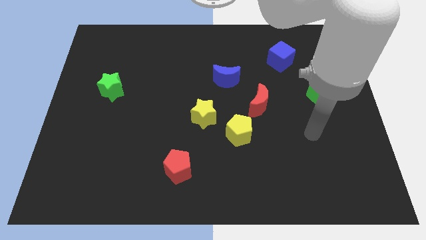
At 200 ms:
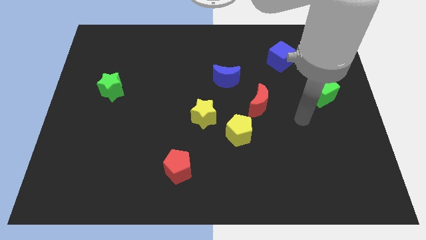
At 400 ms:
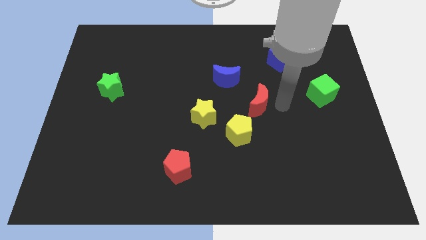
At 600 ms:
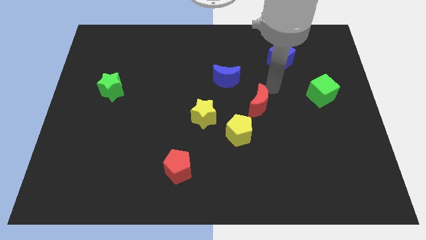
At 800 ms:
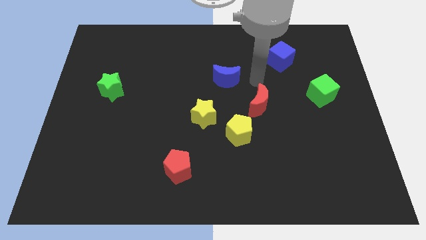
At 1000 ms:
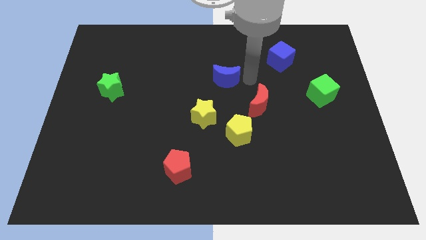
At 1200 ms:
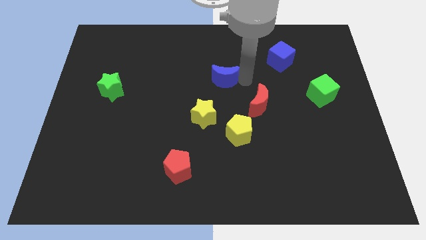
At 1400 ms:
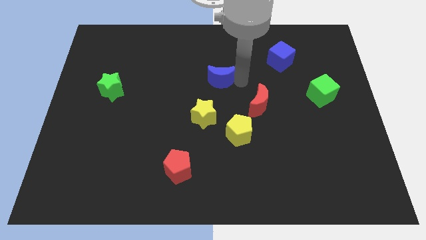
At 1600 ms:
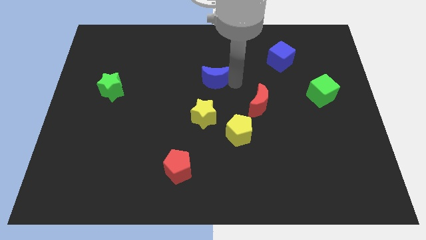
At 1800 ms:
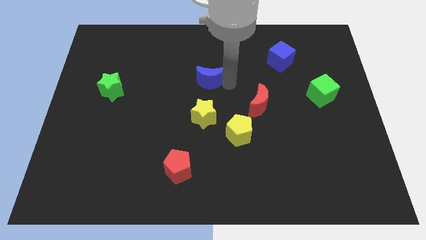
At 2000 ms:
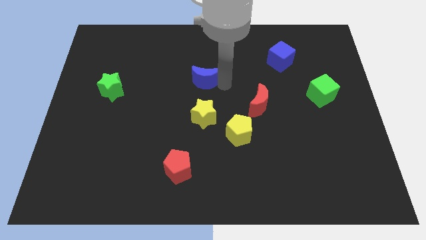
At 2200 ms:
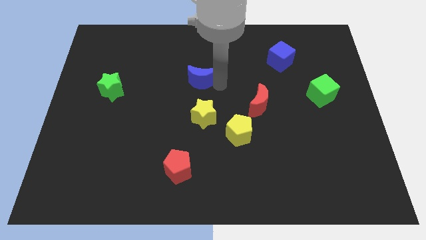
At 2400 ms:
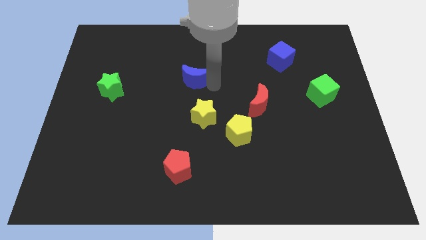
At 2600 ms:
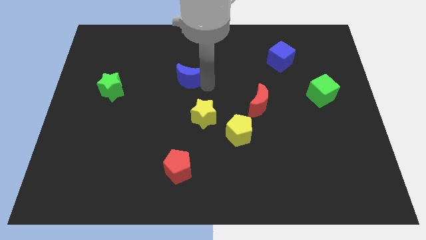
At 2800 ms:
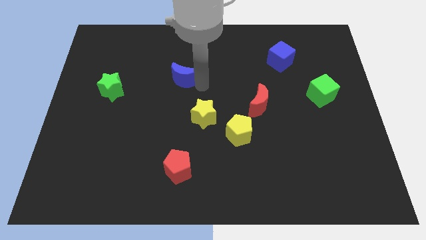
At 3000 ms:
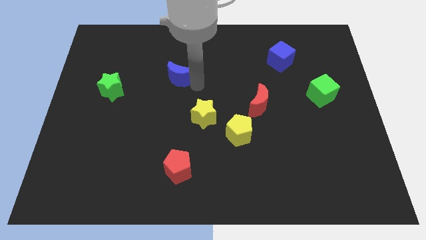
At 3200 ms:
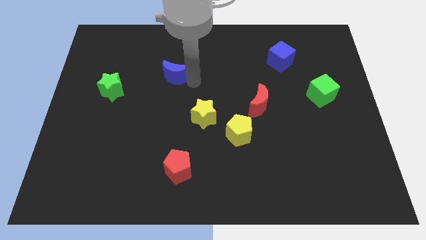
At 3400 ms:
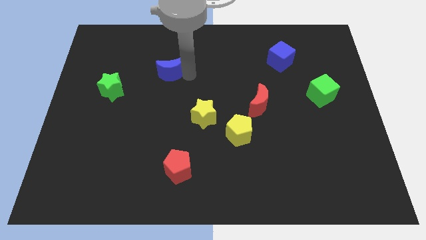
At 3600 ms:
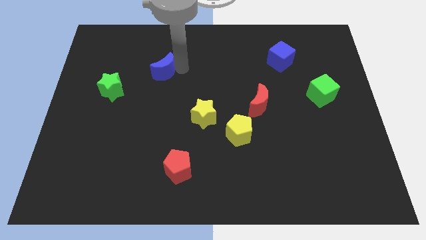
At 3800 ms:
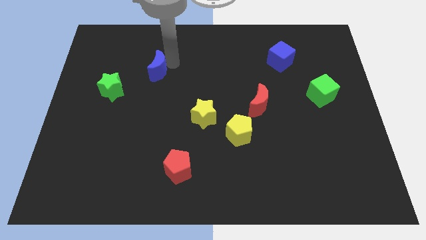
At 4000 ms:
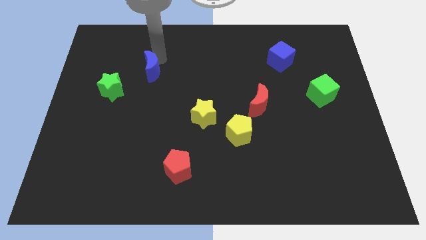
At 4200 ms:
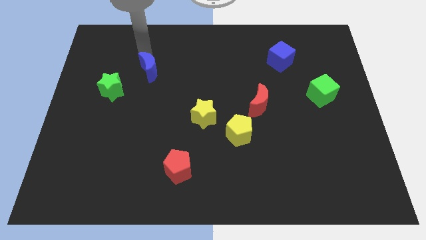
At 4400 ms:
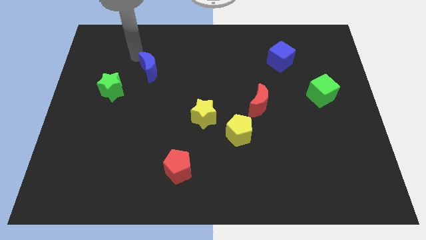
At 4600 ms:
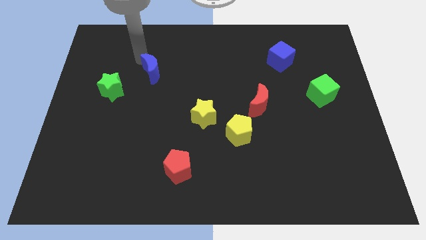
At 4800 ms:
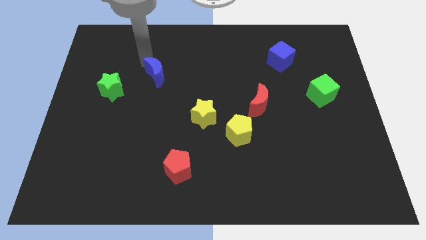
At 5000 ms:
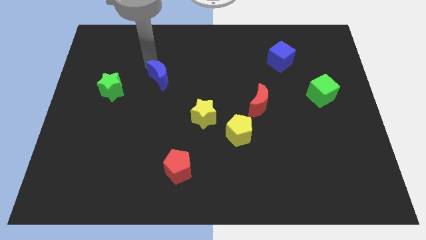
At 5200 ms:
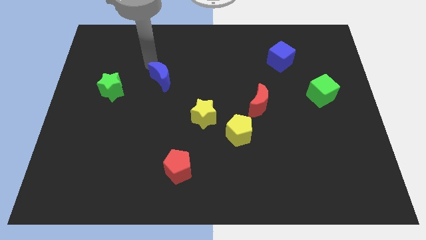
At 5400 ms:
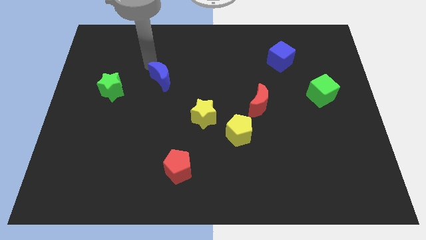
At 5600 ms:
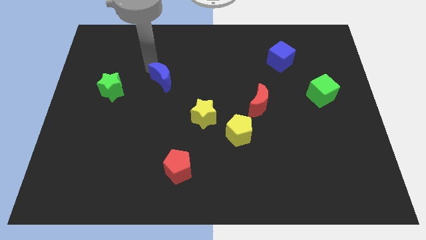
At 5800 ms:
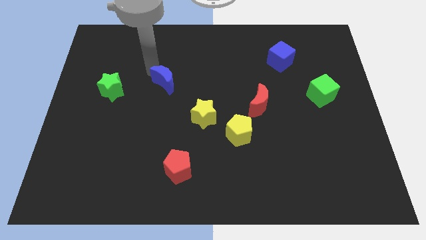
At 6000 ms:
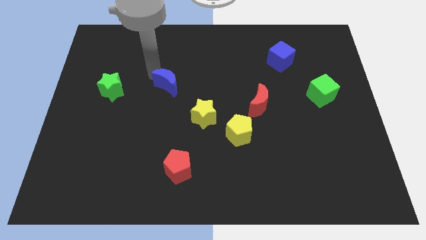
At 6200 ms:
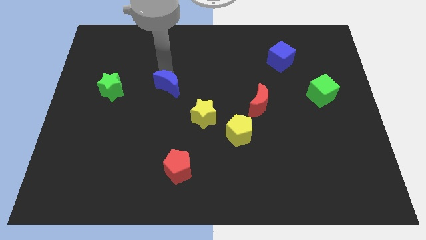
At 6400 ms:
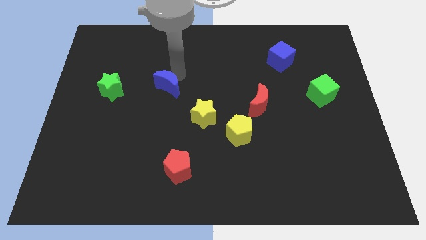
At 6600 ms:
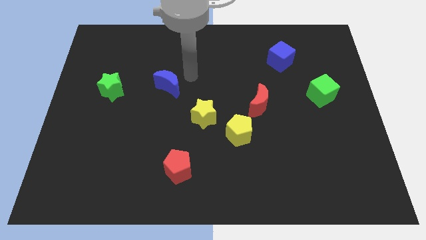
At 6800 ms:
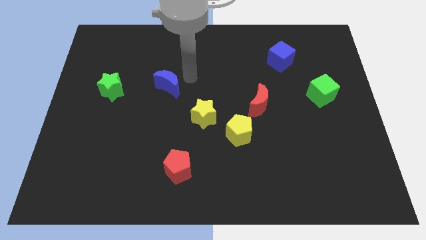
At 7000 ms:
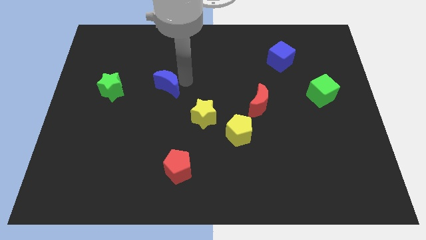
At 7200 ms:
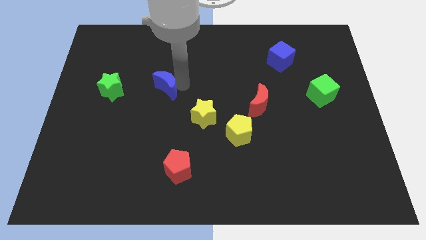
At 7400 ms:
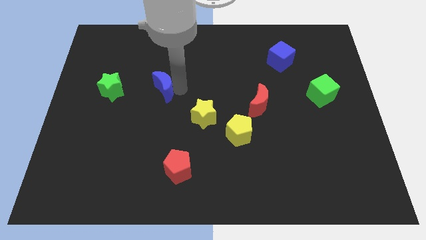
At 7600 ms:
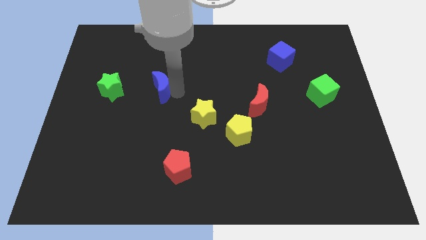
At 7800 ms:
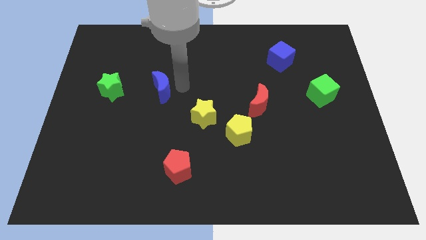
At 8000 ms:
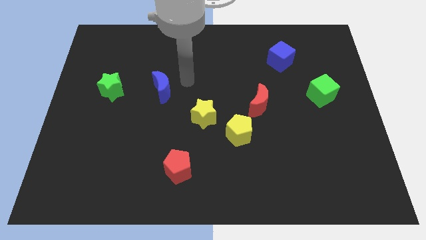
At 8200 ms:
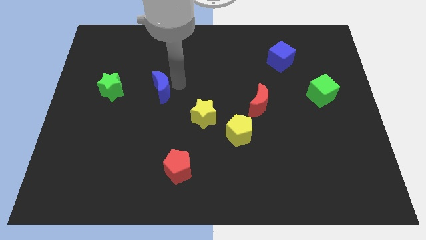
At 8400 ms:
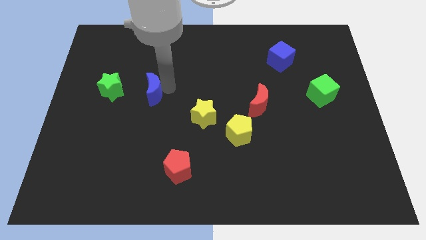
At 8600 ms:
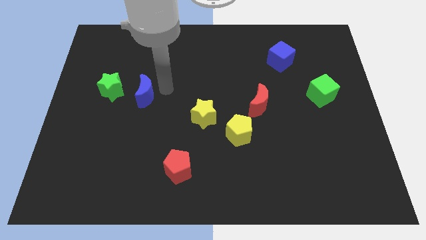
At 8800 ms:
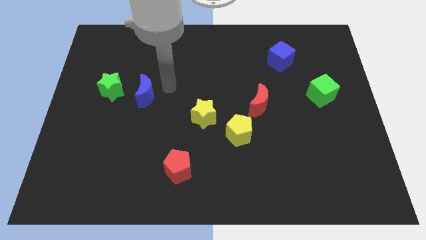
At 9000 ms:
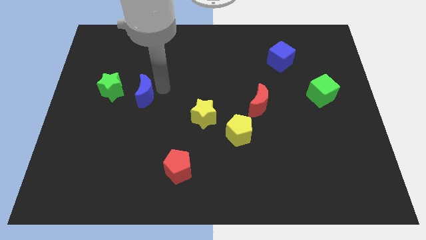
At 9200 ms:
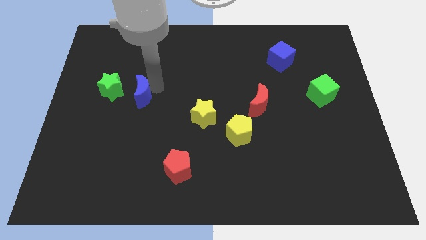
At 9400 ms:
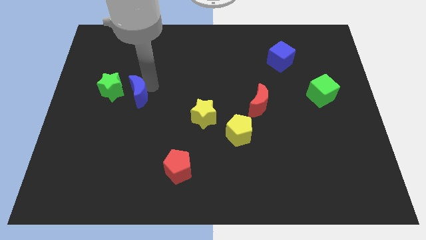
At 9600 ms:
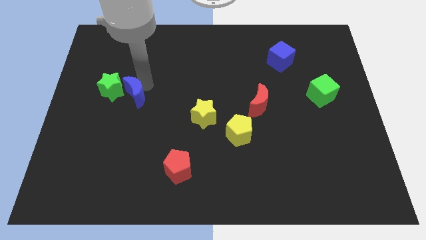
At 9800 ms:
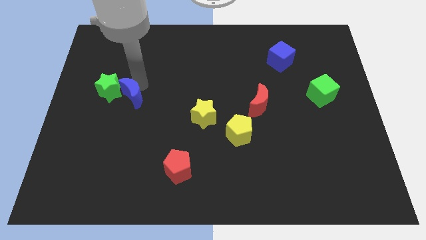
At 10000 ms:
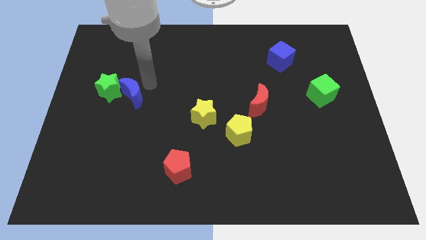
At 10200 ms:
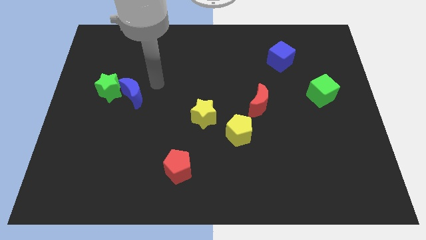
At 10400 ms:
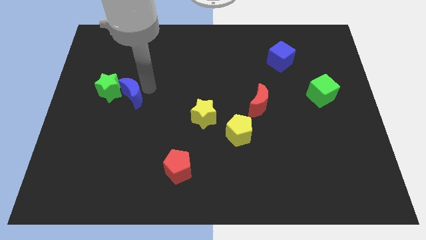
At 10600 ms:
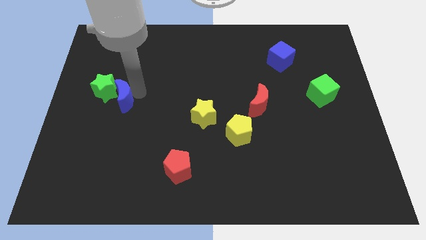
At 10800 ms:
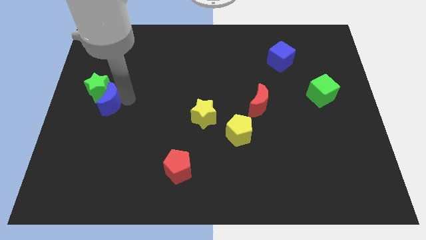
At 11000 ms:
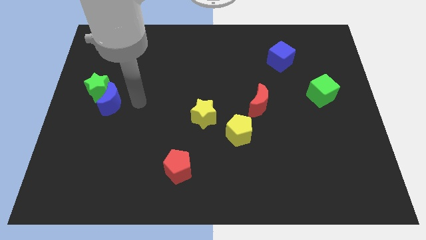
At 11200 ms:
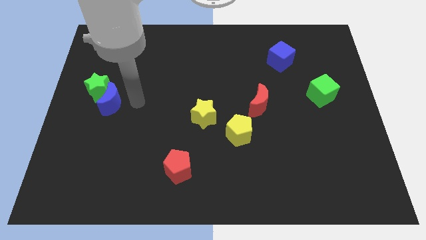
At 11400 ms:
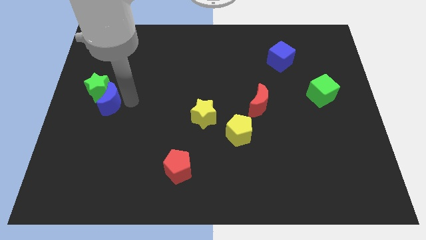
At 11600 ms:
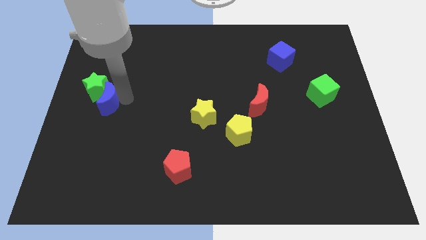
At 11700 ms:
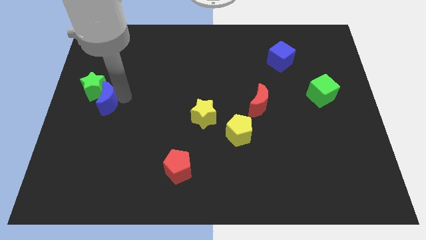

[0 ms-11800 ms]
slide the blue moon to the center left
